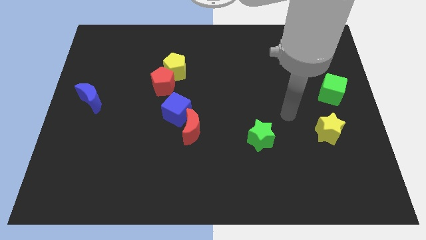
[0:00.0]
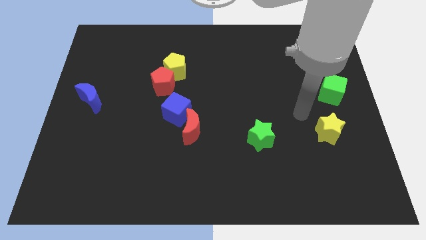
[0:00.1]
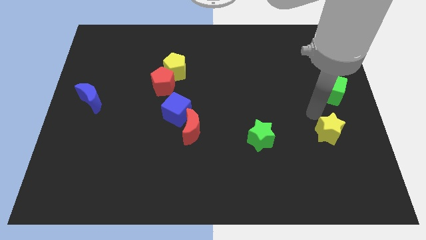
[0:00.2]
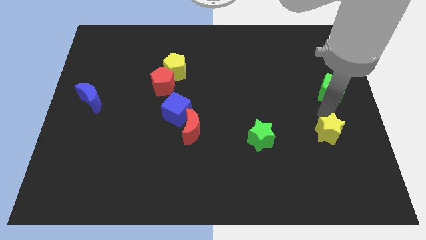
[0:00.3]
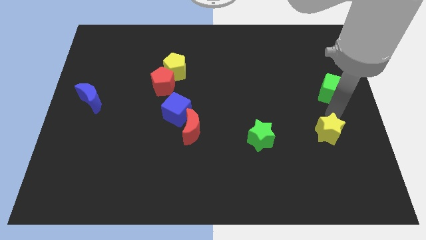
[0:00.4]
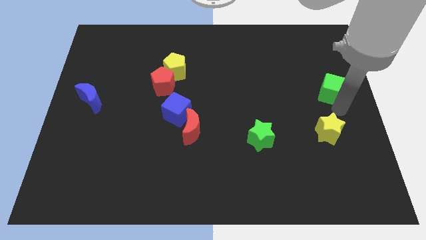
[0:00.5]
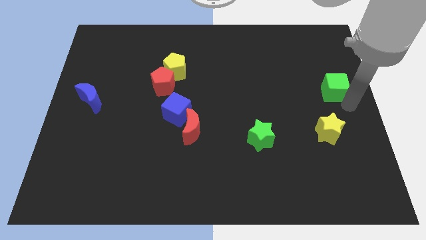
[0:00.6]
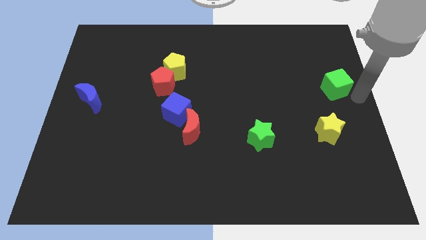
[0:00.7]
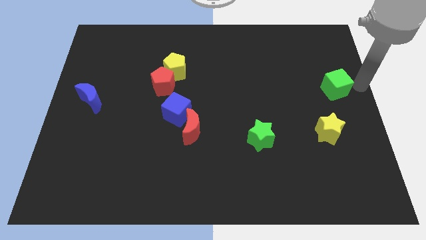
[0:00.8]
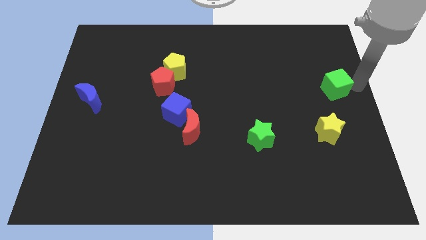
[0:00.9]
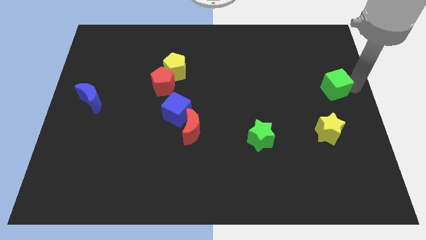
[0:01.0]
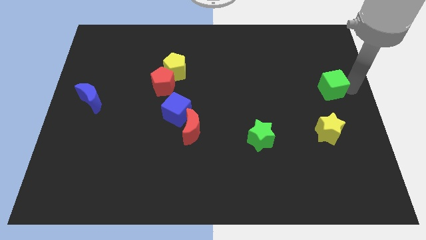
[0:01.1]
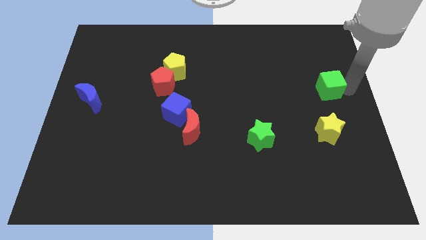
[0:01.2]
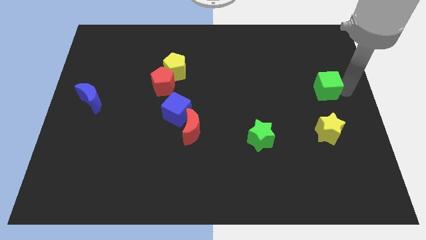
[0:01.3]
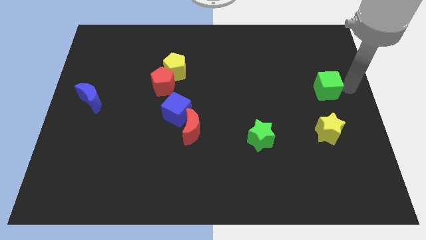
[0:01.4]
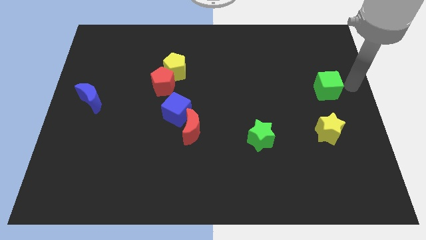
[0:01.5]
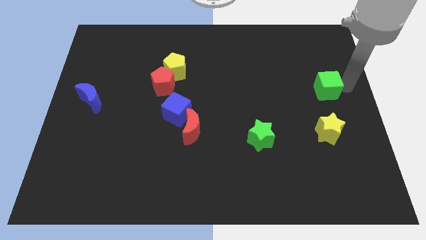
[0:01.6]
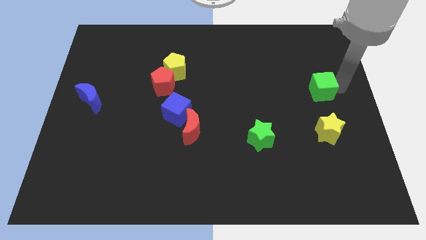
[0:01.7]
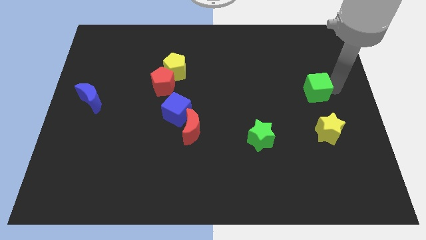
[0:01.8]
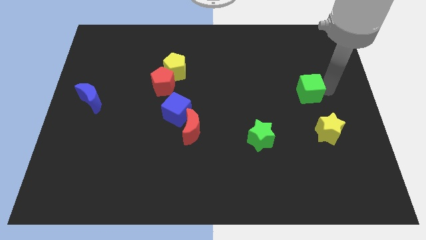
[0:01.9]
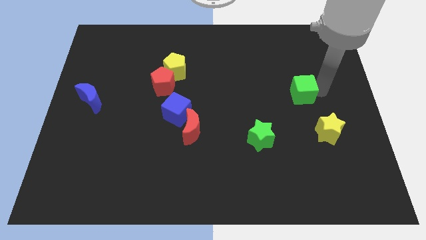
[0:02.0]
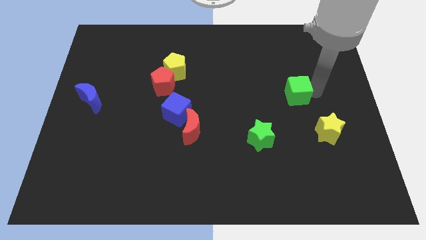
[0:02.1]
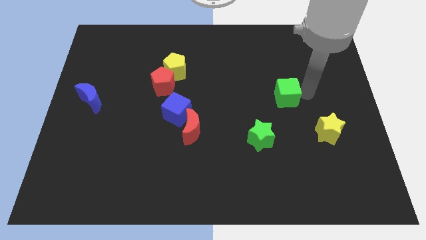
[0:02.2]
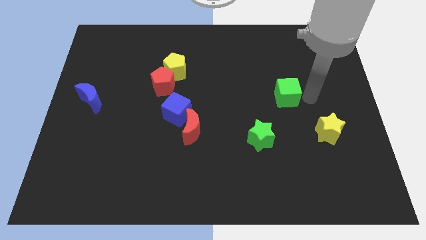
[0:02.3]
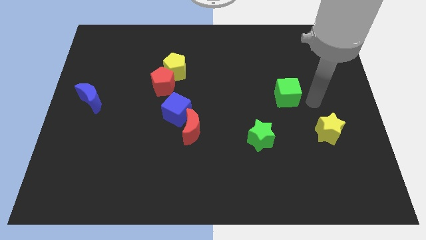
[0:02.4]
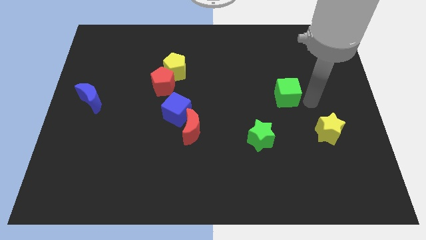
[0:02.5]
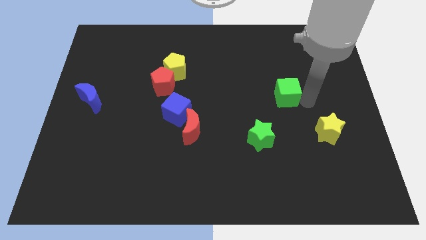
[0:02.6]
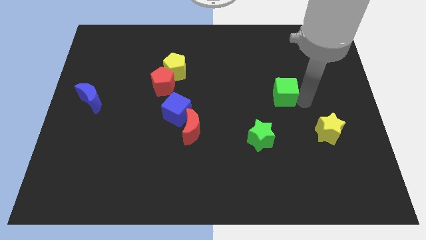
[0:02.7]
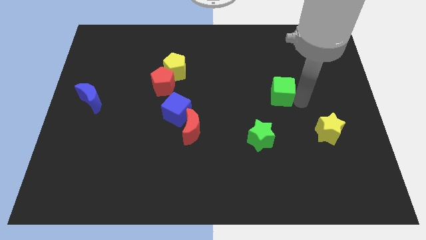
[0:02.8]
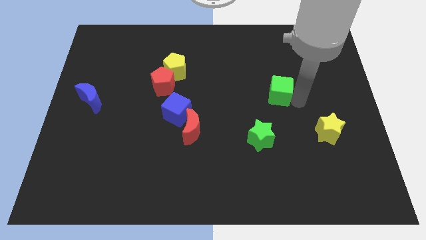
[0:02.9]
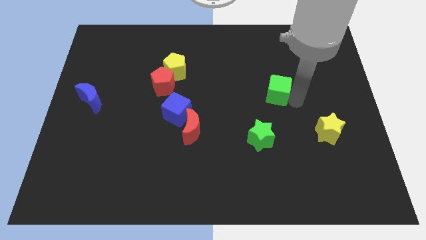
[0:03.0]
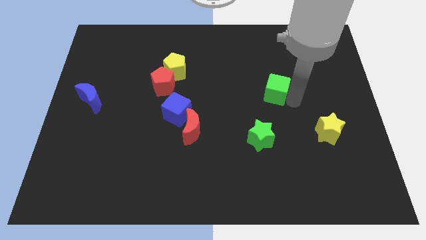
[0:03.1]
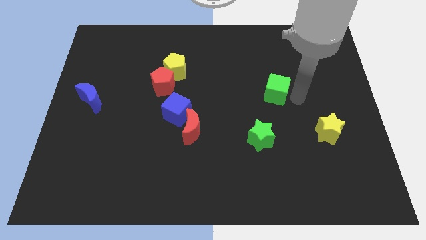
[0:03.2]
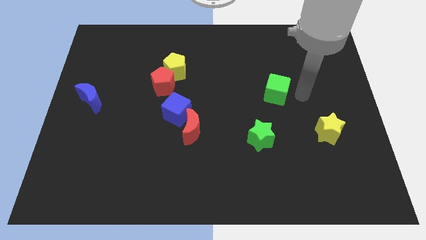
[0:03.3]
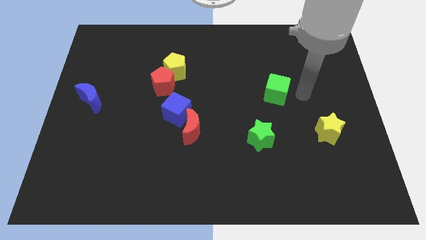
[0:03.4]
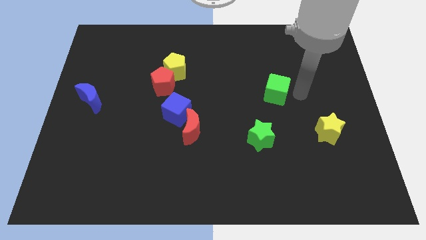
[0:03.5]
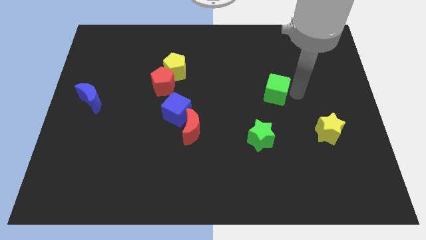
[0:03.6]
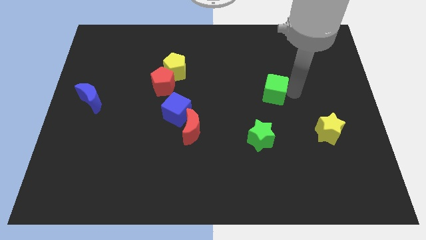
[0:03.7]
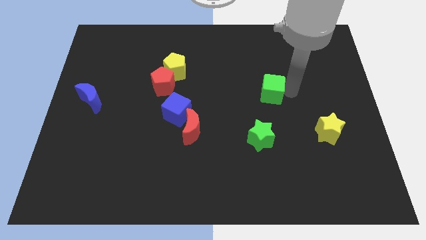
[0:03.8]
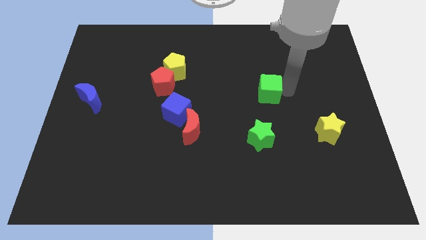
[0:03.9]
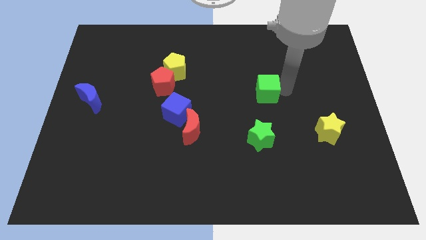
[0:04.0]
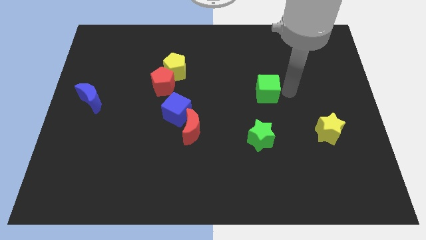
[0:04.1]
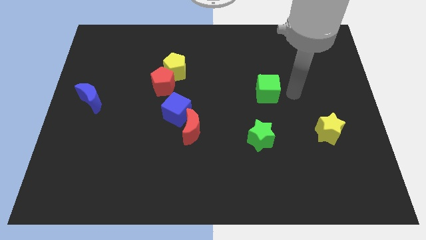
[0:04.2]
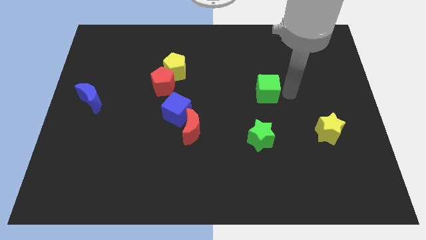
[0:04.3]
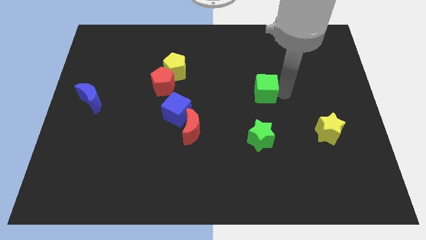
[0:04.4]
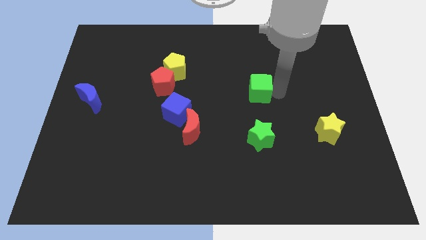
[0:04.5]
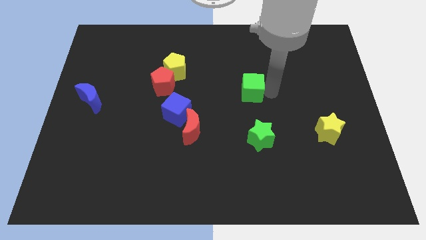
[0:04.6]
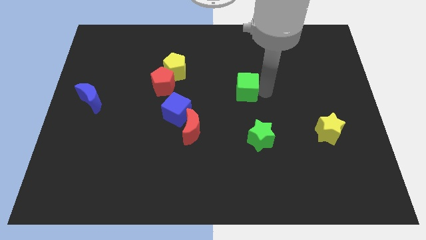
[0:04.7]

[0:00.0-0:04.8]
slide the green cube left

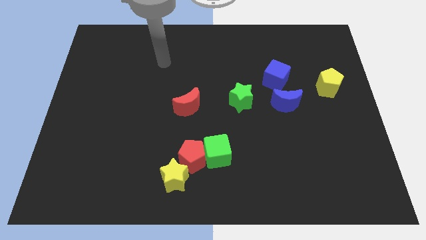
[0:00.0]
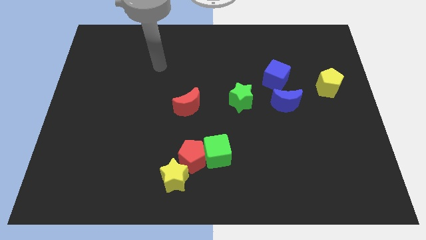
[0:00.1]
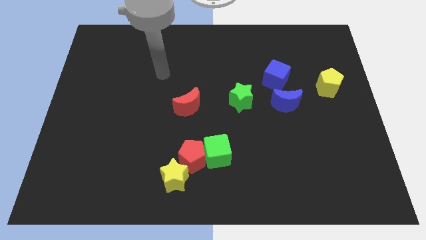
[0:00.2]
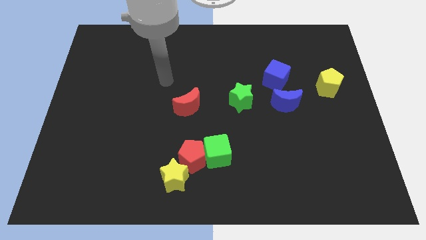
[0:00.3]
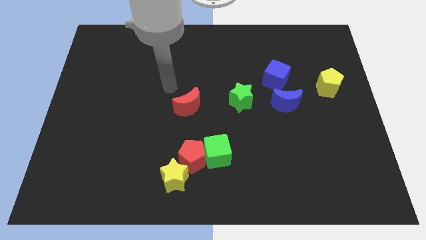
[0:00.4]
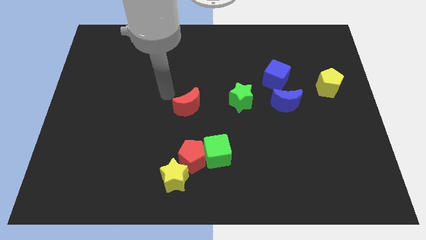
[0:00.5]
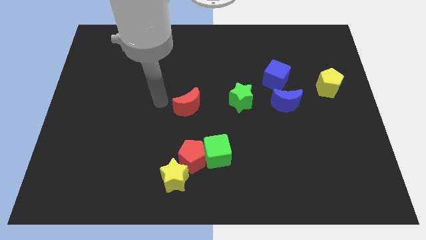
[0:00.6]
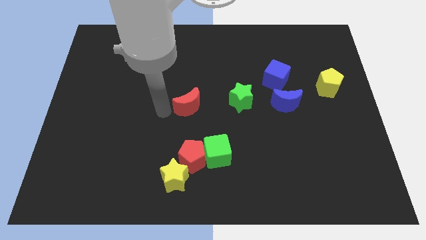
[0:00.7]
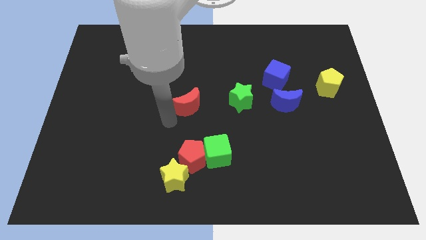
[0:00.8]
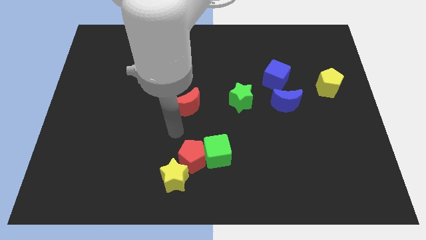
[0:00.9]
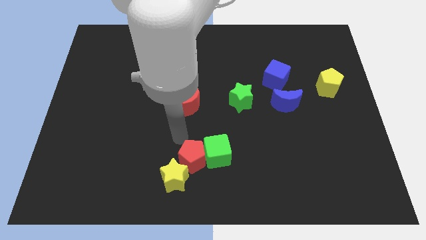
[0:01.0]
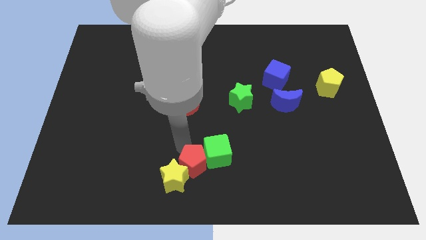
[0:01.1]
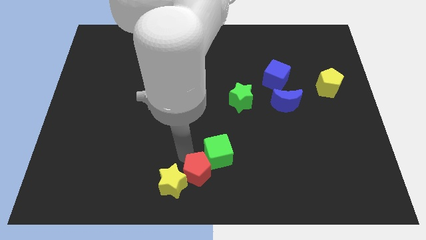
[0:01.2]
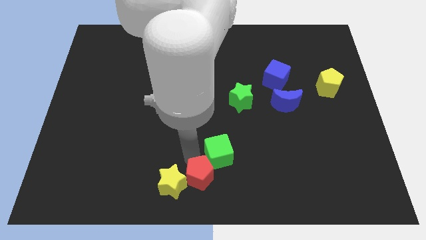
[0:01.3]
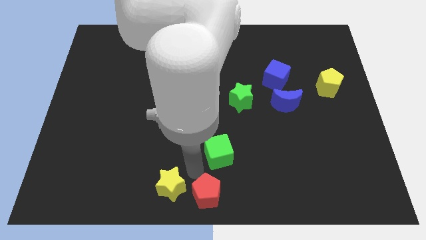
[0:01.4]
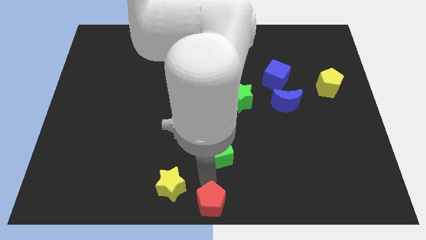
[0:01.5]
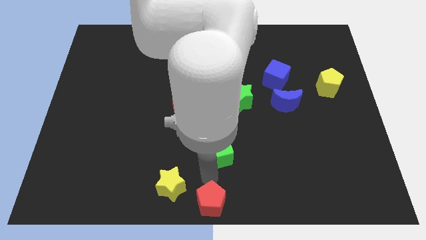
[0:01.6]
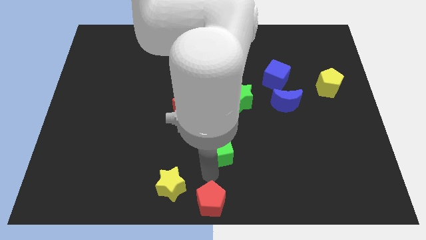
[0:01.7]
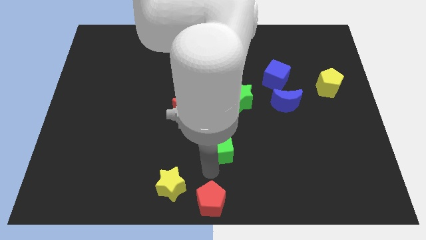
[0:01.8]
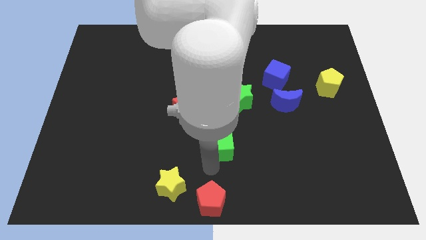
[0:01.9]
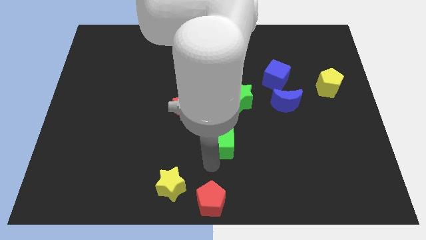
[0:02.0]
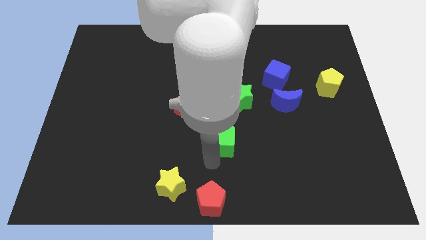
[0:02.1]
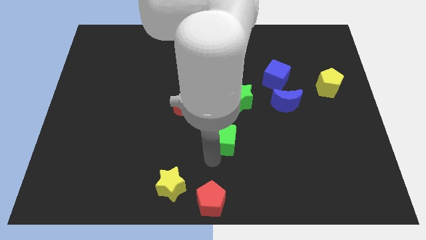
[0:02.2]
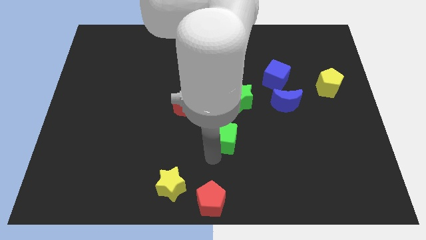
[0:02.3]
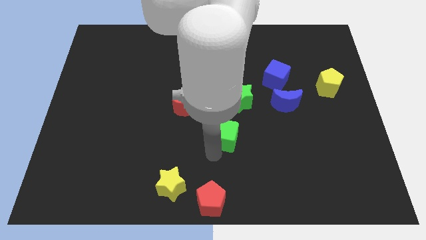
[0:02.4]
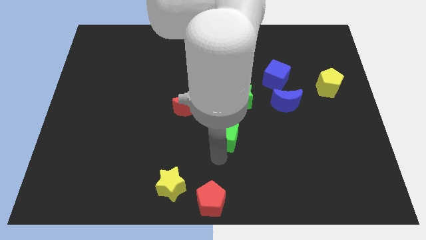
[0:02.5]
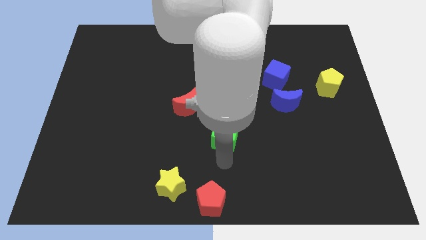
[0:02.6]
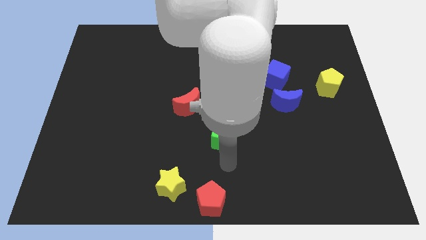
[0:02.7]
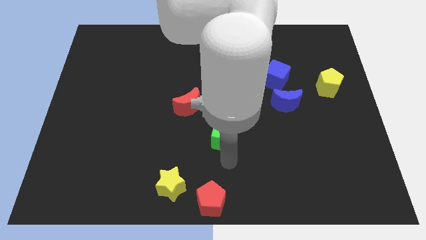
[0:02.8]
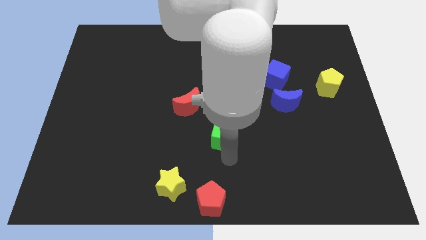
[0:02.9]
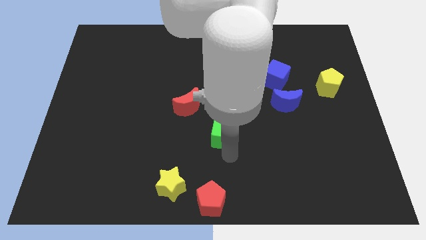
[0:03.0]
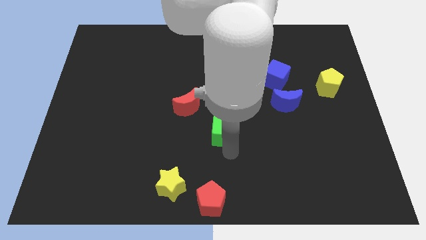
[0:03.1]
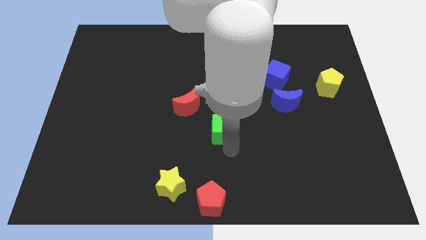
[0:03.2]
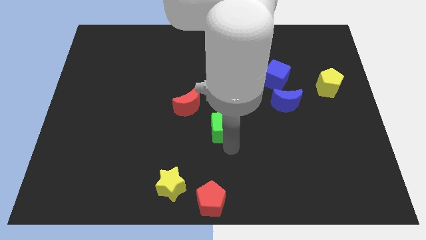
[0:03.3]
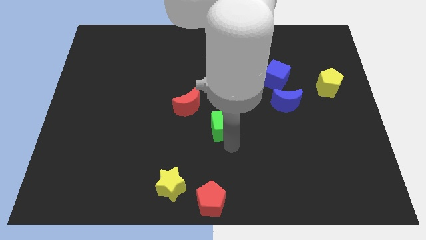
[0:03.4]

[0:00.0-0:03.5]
push the green cube upwards slightly
